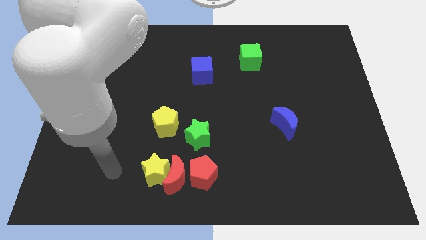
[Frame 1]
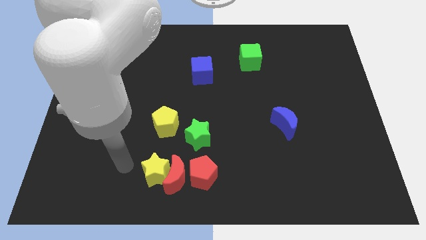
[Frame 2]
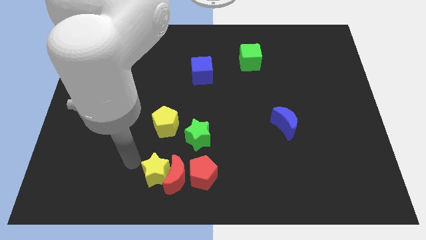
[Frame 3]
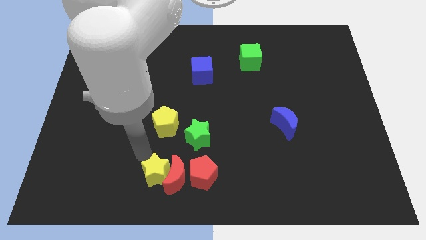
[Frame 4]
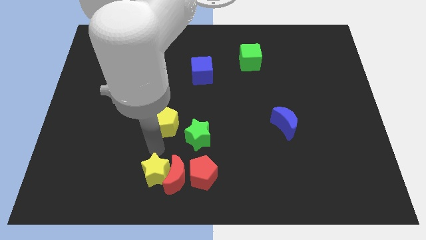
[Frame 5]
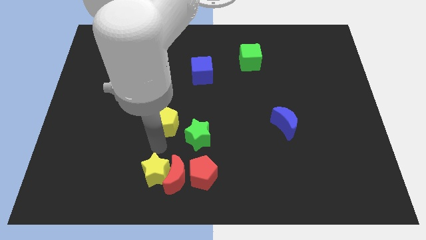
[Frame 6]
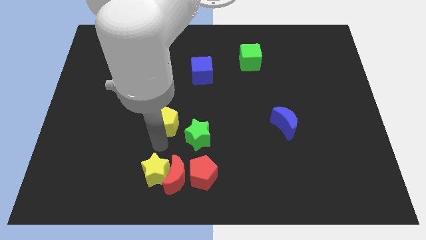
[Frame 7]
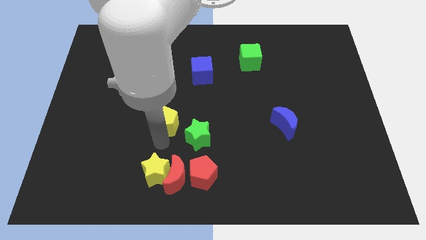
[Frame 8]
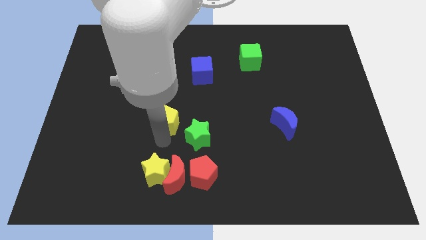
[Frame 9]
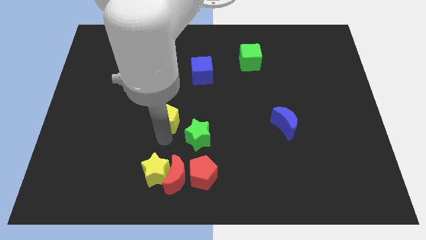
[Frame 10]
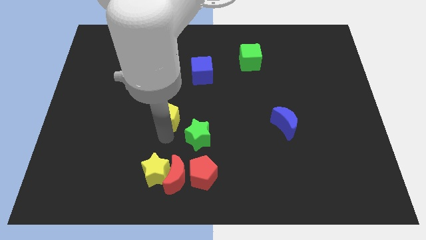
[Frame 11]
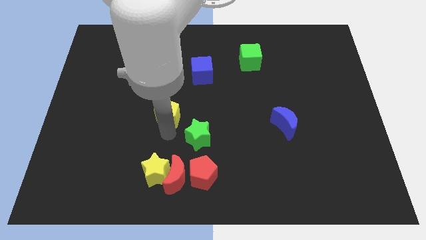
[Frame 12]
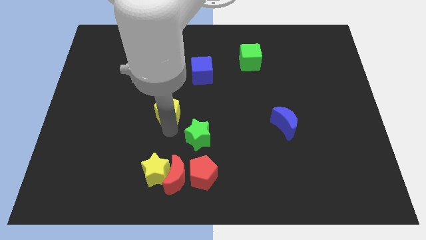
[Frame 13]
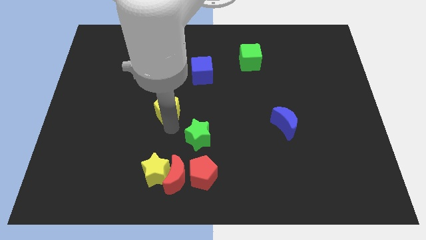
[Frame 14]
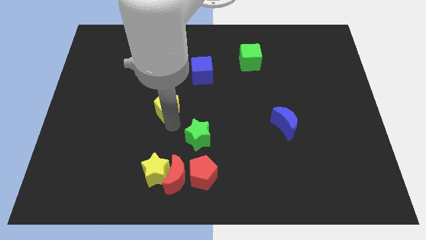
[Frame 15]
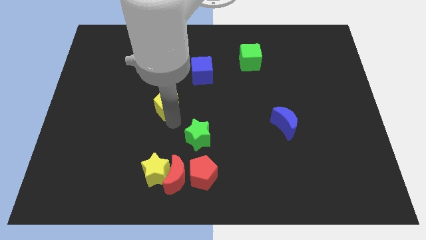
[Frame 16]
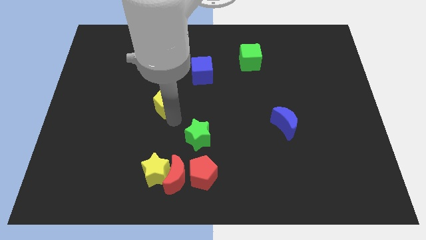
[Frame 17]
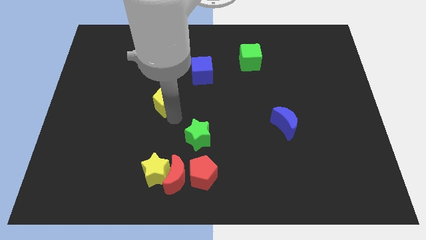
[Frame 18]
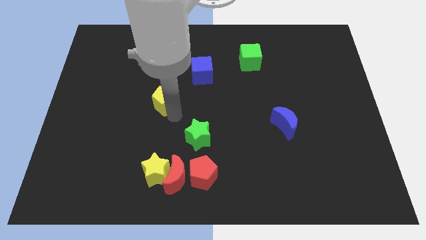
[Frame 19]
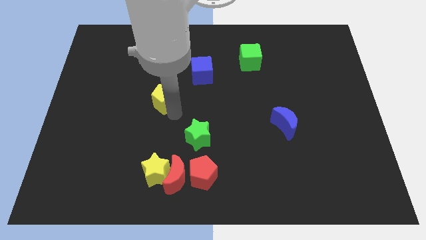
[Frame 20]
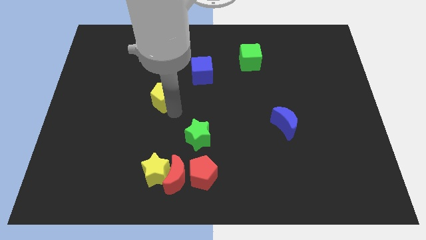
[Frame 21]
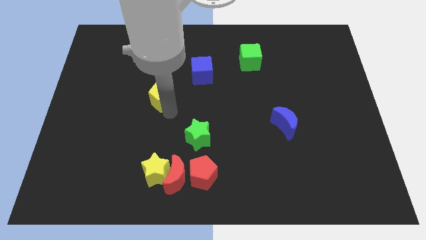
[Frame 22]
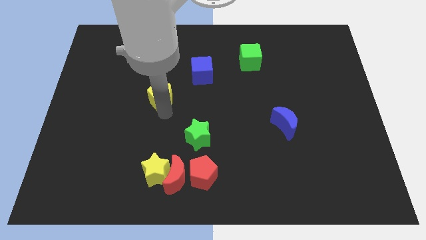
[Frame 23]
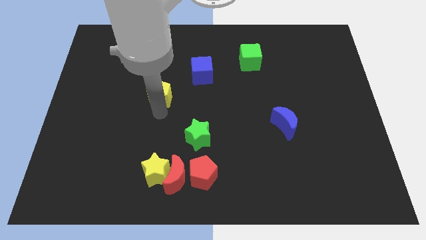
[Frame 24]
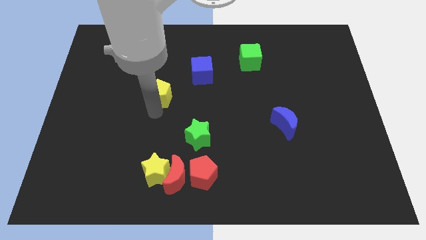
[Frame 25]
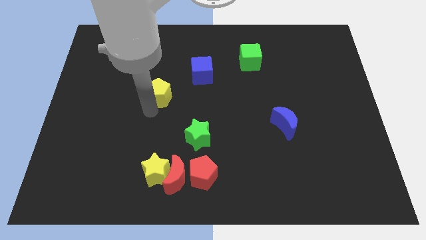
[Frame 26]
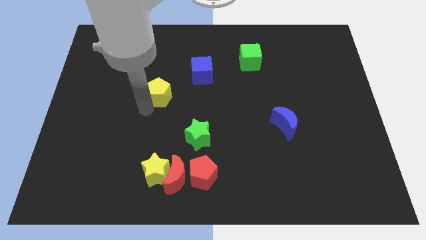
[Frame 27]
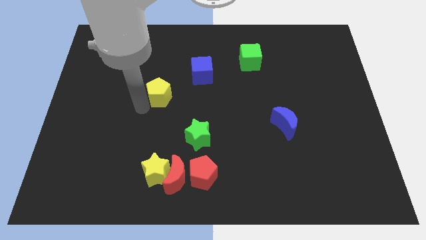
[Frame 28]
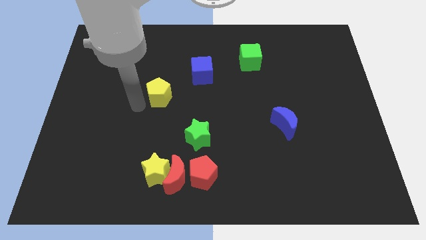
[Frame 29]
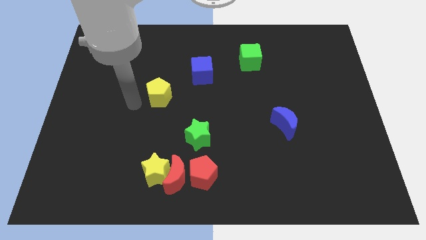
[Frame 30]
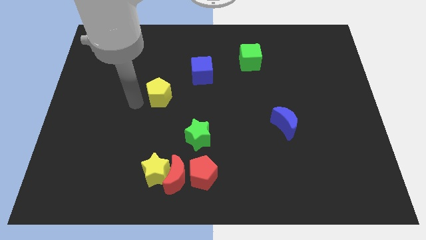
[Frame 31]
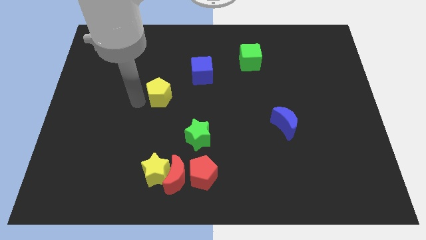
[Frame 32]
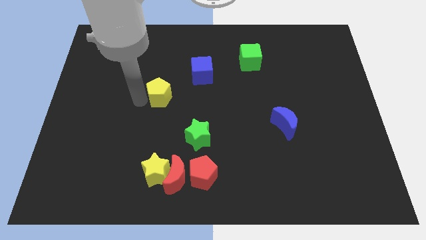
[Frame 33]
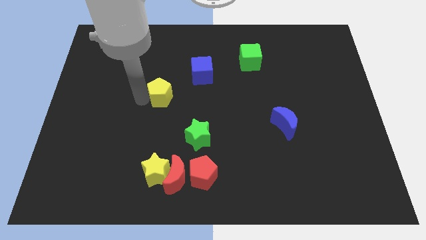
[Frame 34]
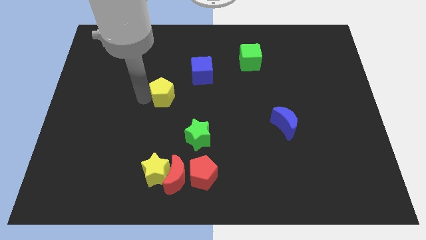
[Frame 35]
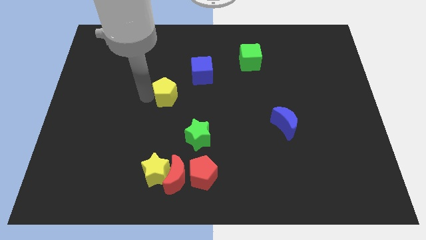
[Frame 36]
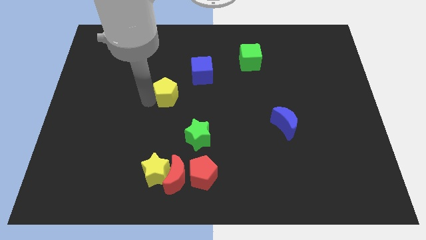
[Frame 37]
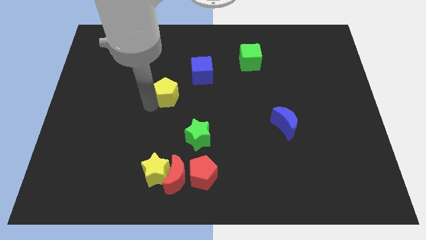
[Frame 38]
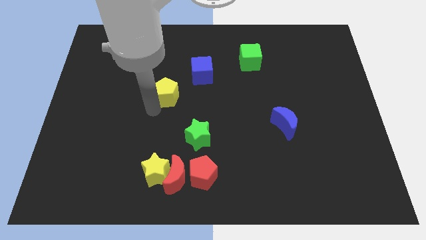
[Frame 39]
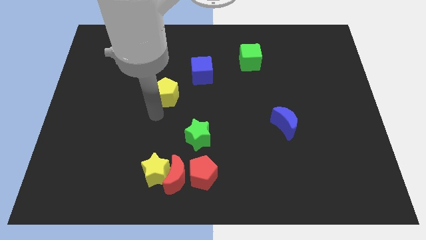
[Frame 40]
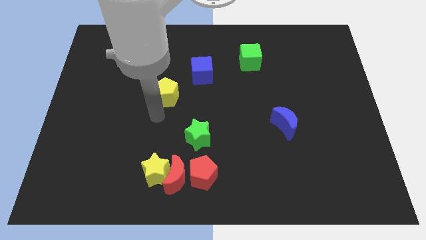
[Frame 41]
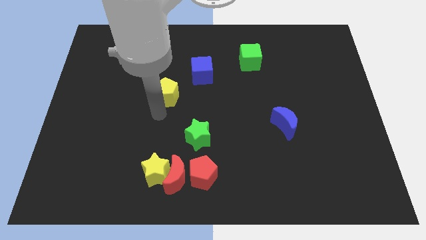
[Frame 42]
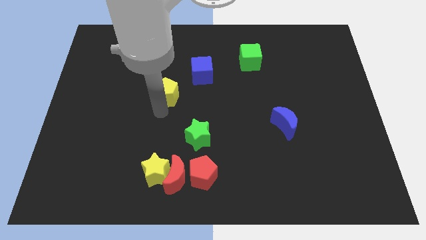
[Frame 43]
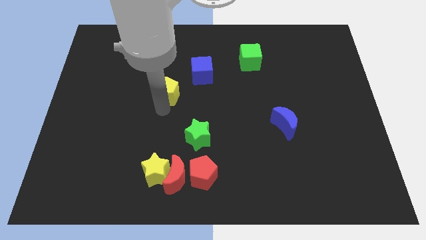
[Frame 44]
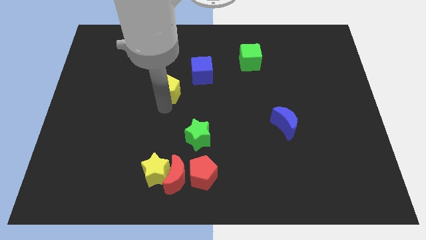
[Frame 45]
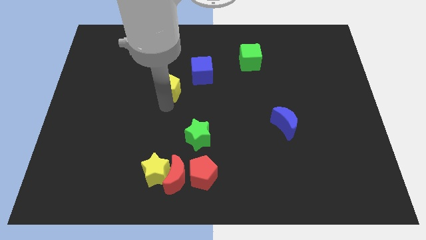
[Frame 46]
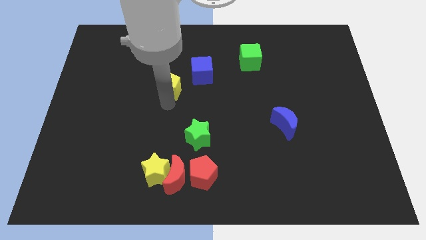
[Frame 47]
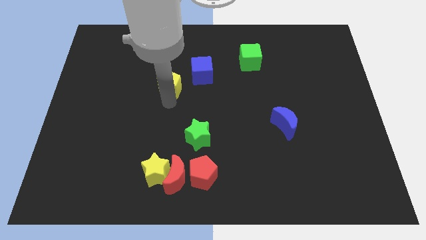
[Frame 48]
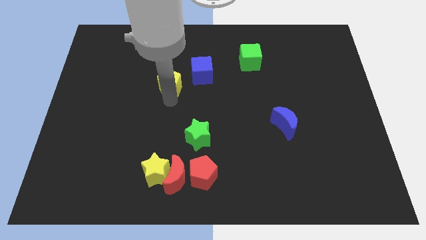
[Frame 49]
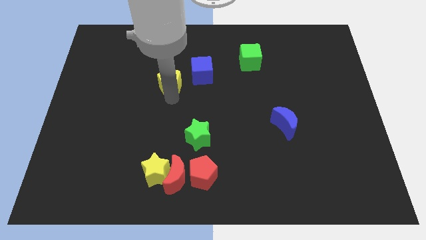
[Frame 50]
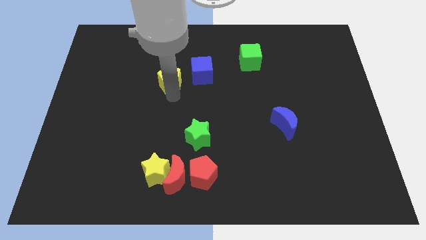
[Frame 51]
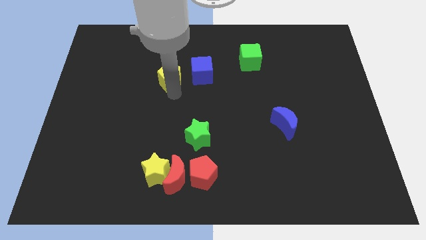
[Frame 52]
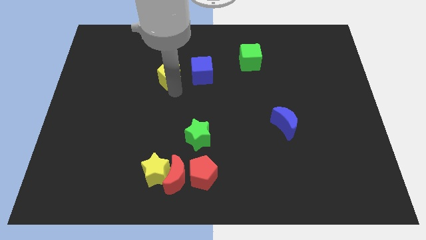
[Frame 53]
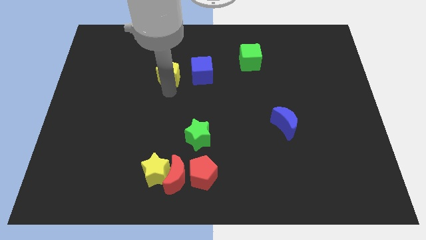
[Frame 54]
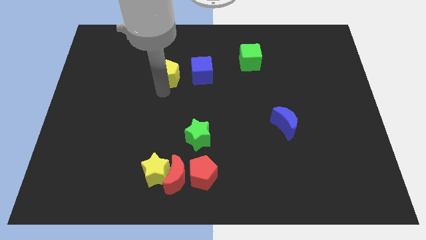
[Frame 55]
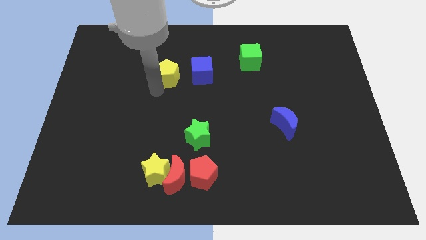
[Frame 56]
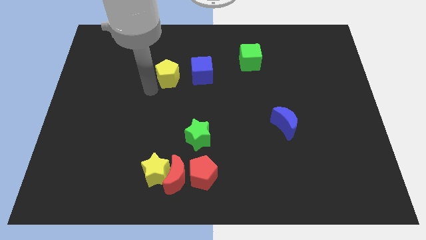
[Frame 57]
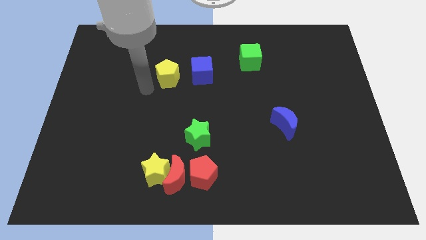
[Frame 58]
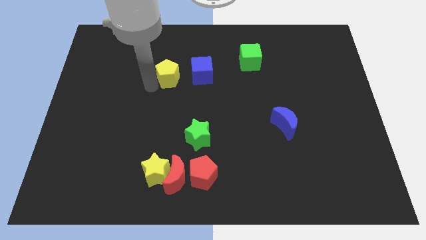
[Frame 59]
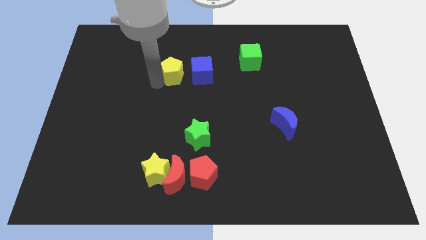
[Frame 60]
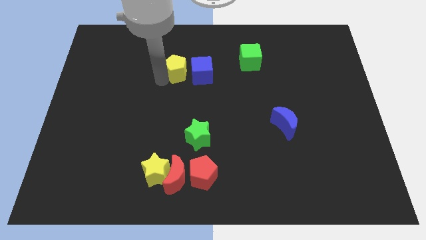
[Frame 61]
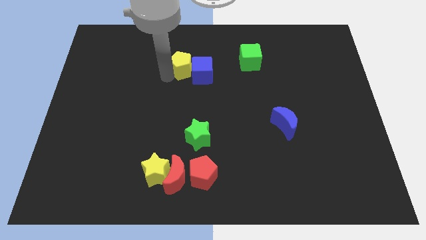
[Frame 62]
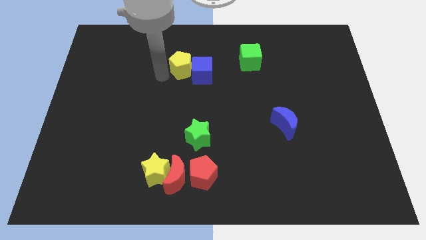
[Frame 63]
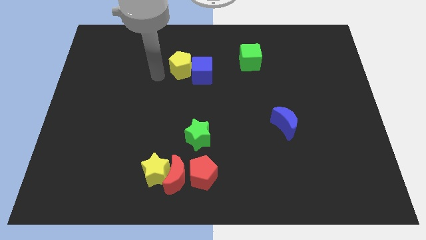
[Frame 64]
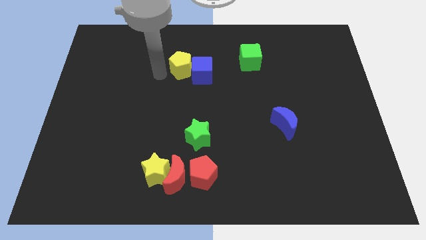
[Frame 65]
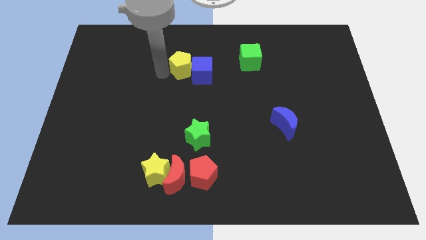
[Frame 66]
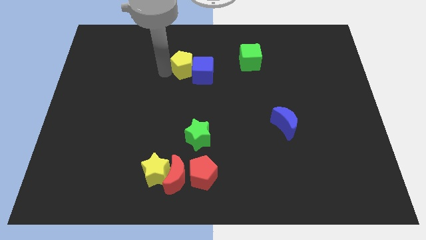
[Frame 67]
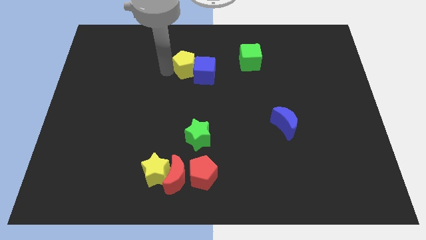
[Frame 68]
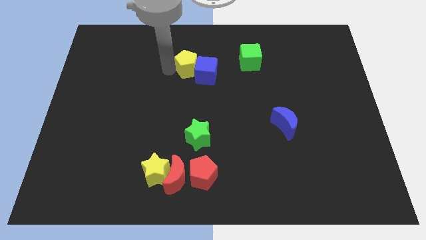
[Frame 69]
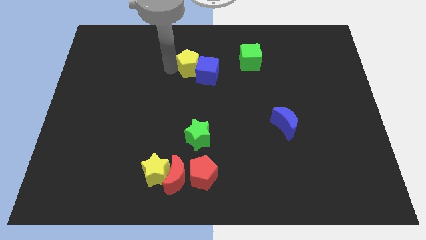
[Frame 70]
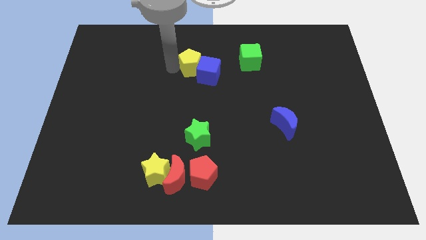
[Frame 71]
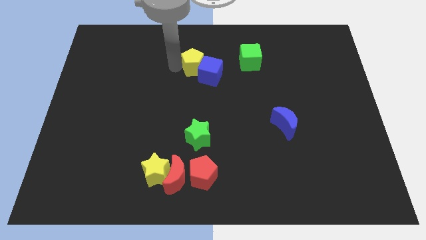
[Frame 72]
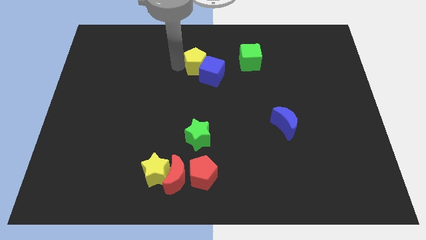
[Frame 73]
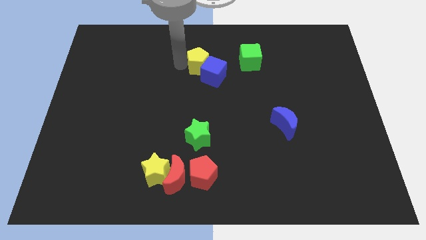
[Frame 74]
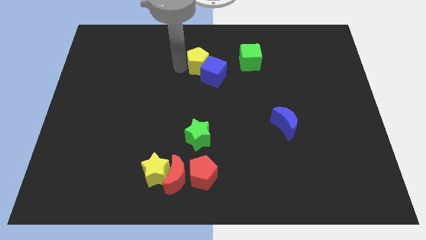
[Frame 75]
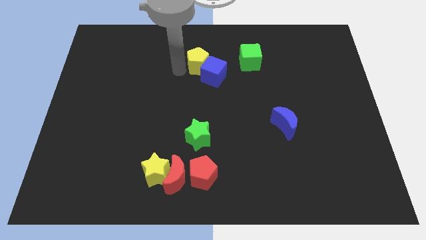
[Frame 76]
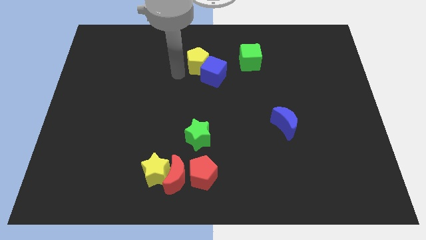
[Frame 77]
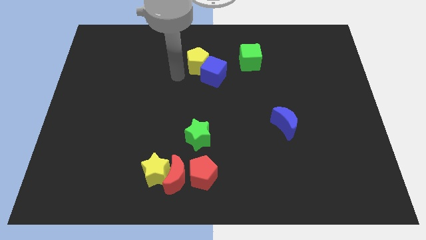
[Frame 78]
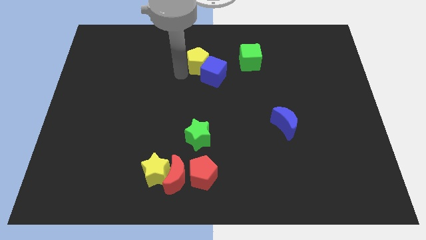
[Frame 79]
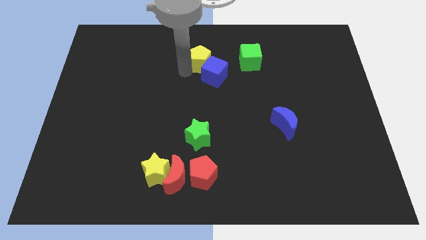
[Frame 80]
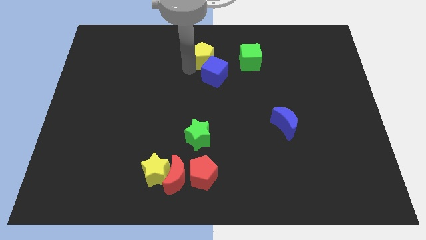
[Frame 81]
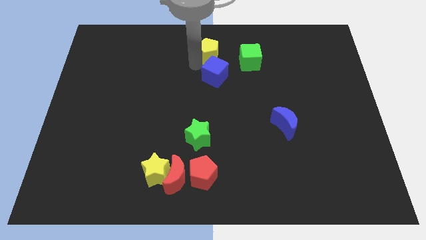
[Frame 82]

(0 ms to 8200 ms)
slide the yellow pentagon to the towards your base
